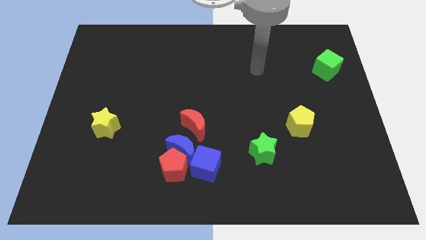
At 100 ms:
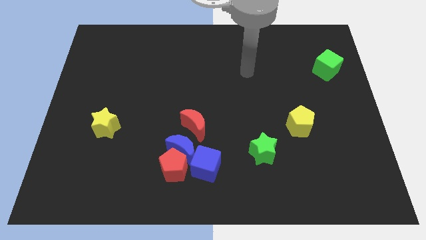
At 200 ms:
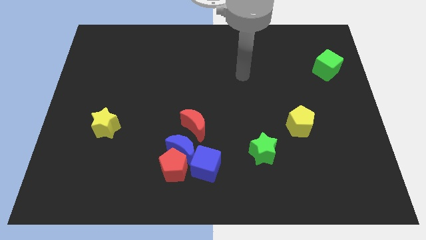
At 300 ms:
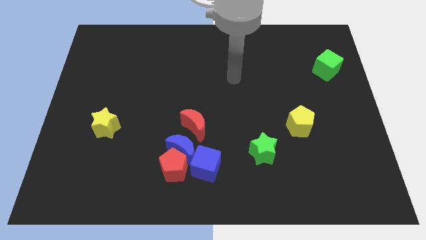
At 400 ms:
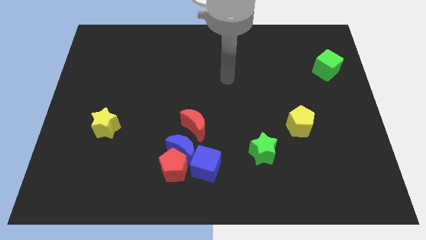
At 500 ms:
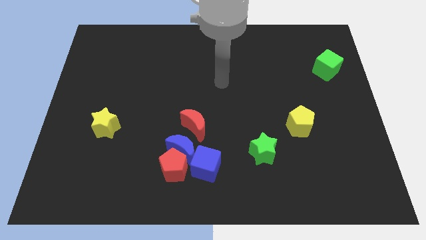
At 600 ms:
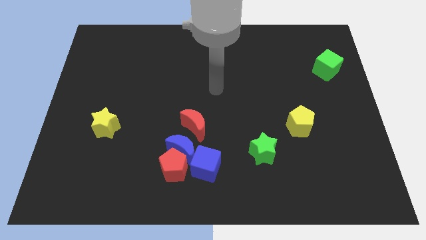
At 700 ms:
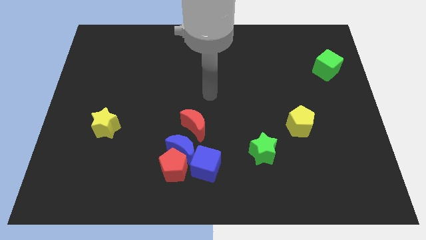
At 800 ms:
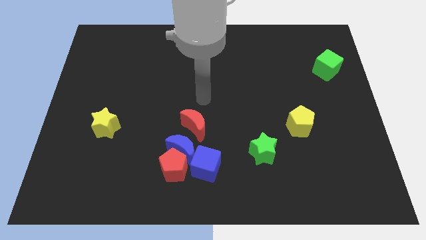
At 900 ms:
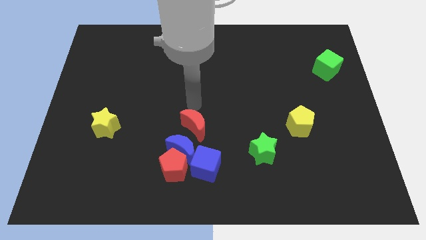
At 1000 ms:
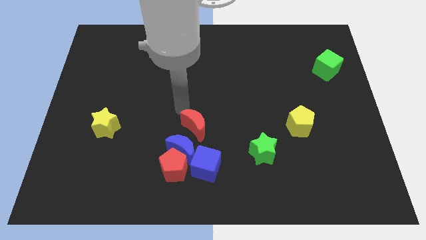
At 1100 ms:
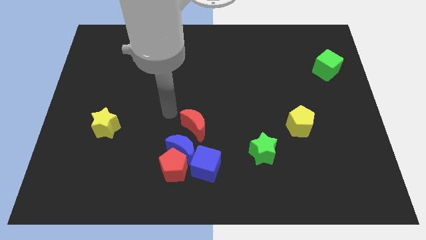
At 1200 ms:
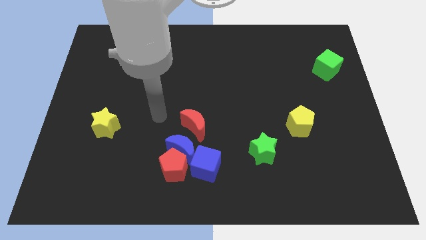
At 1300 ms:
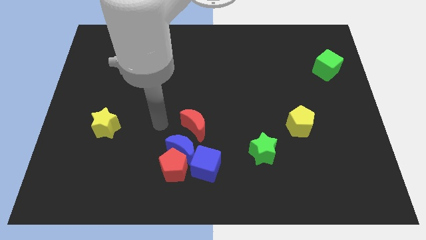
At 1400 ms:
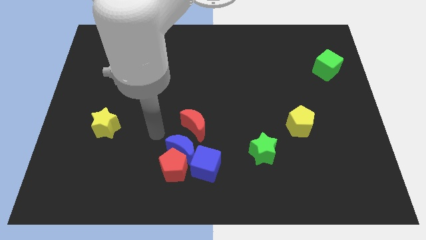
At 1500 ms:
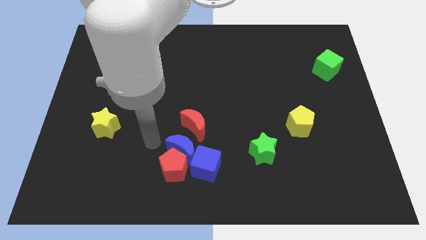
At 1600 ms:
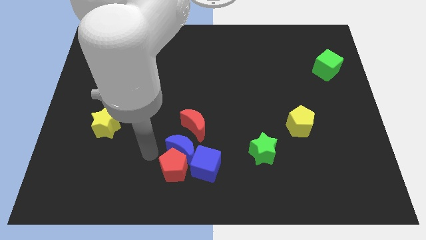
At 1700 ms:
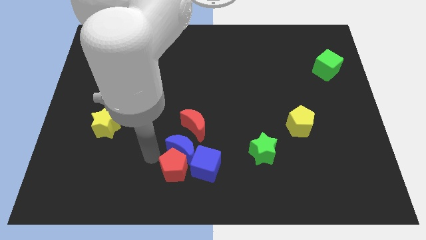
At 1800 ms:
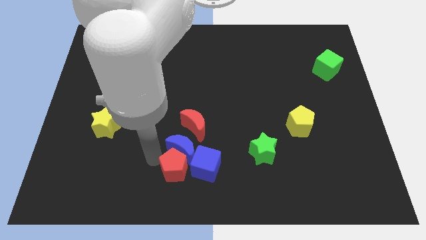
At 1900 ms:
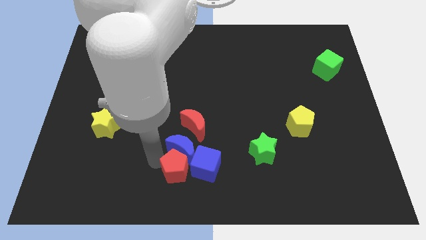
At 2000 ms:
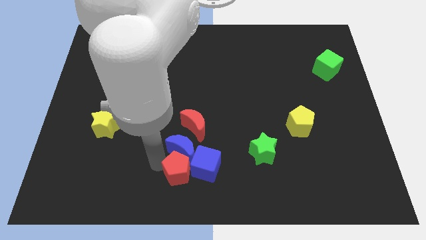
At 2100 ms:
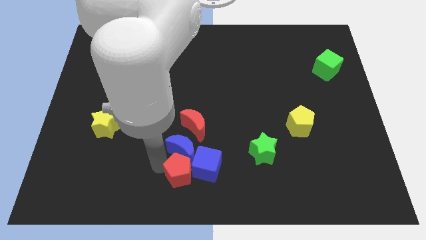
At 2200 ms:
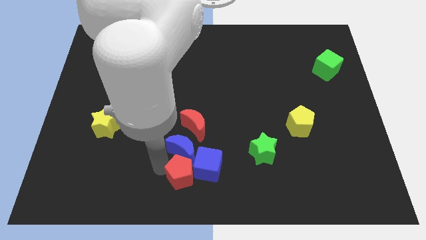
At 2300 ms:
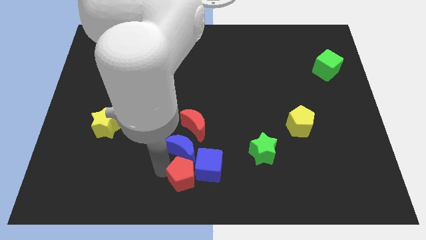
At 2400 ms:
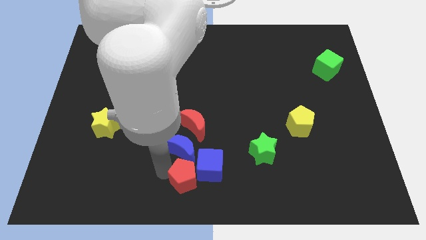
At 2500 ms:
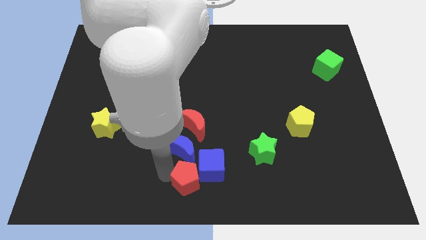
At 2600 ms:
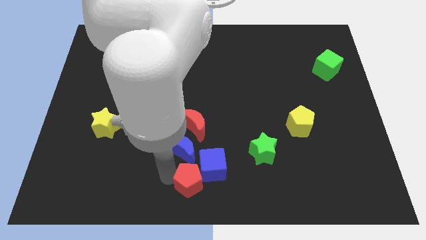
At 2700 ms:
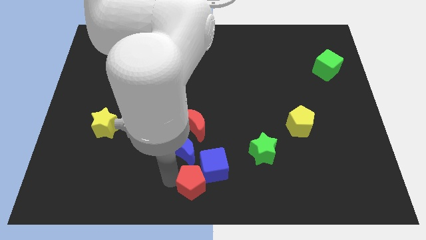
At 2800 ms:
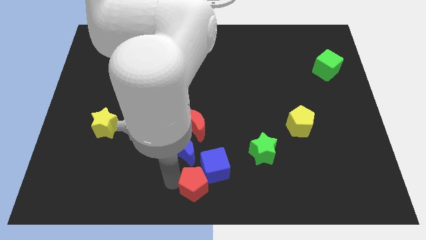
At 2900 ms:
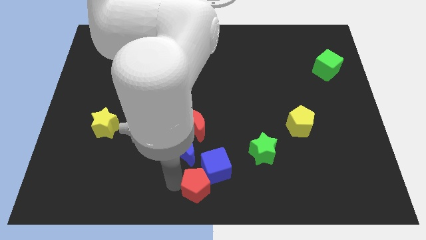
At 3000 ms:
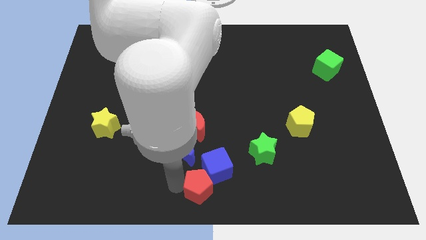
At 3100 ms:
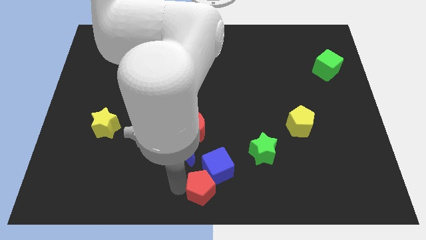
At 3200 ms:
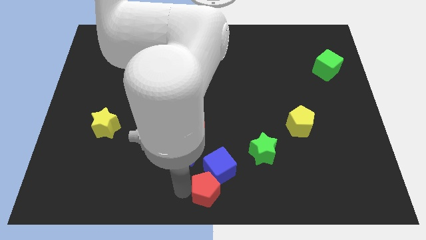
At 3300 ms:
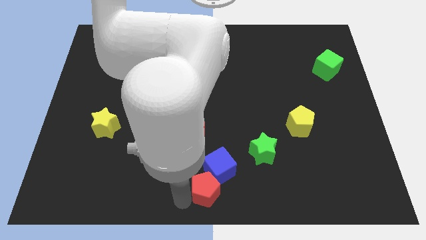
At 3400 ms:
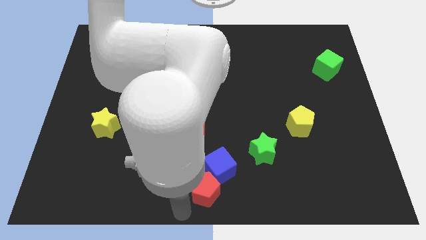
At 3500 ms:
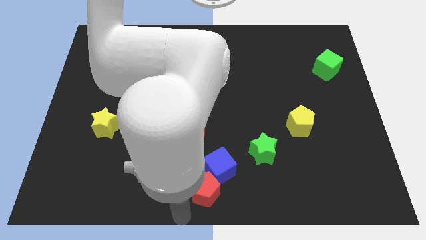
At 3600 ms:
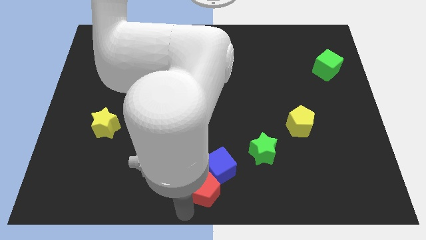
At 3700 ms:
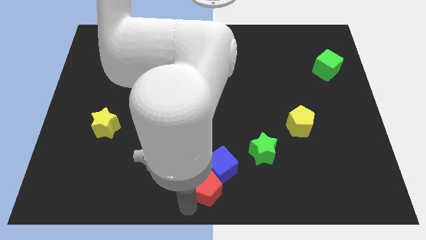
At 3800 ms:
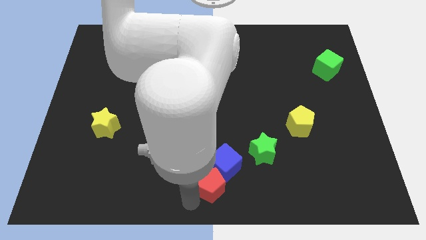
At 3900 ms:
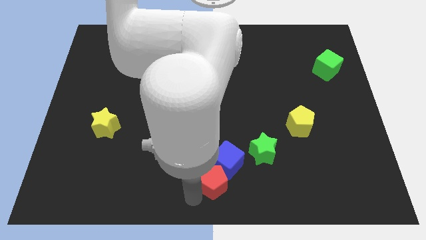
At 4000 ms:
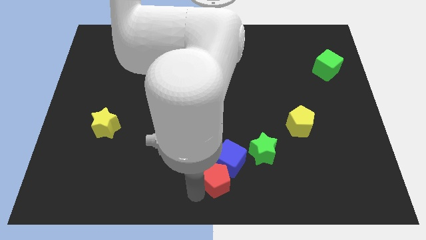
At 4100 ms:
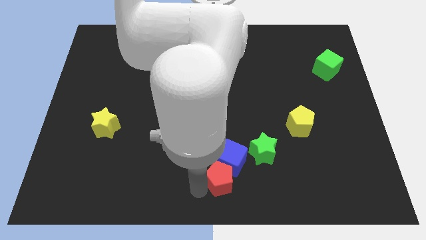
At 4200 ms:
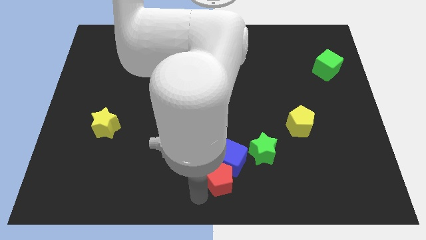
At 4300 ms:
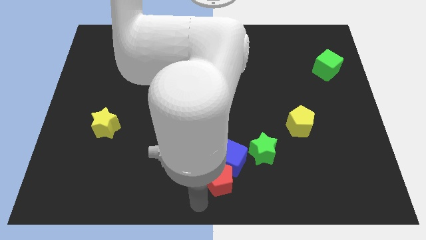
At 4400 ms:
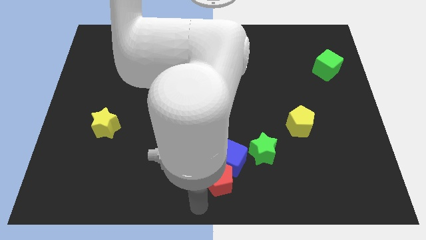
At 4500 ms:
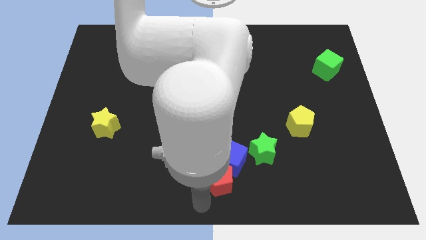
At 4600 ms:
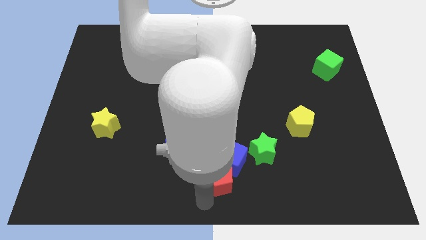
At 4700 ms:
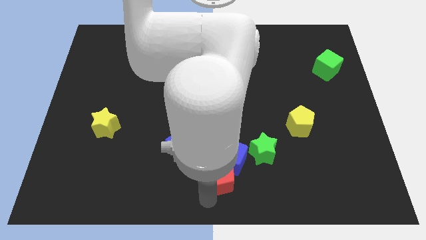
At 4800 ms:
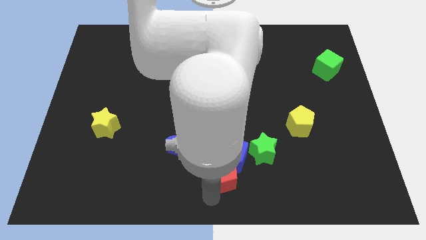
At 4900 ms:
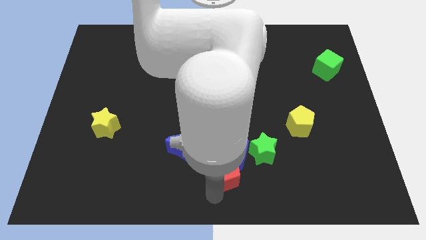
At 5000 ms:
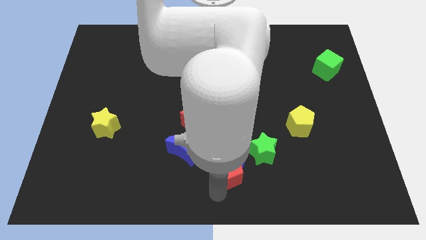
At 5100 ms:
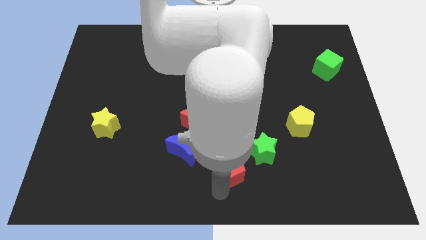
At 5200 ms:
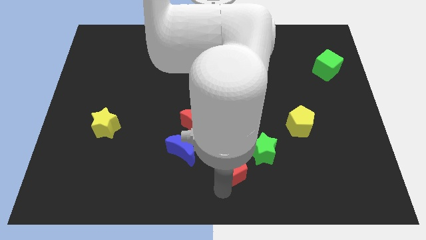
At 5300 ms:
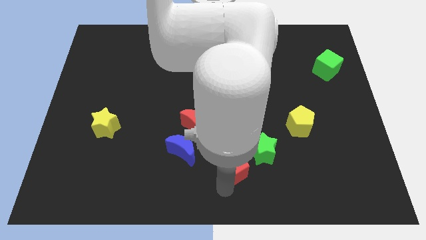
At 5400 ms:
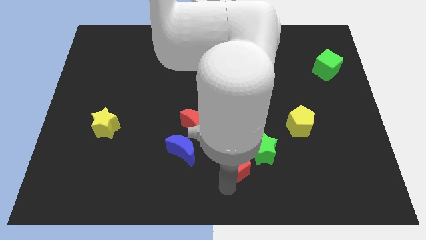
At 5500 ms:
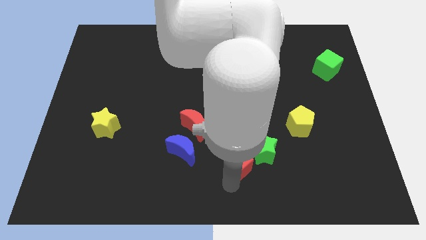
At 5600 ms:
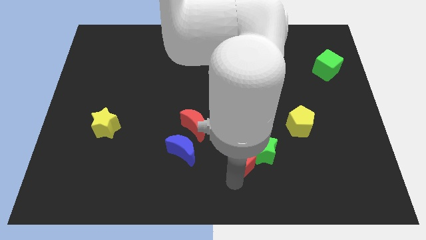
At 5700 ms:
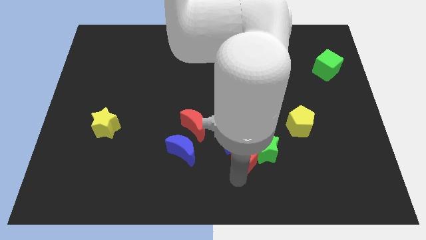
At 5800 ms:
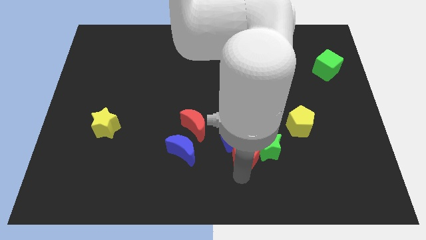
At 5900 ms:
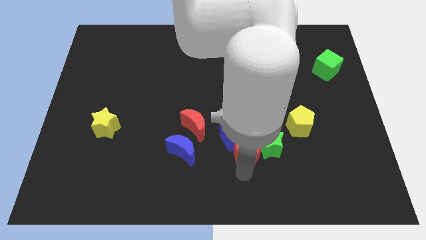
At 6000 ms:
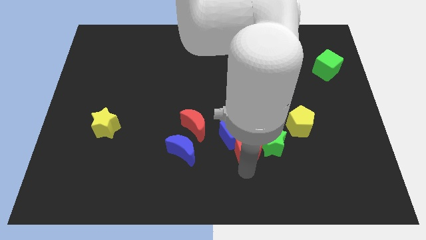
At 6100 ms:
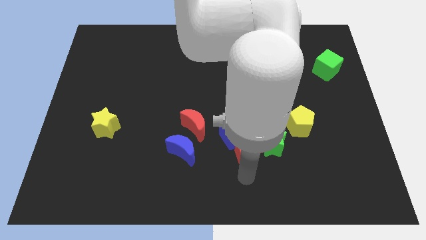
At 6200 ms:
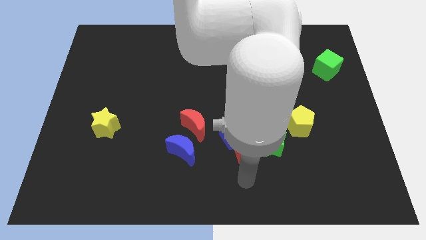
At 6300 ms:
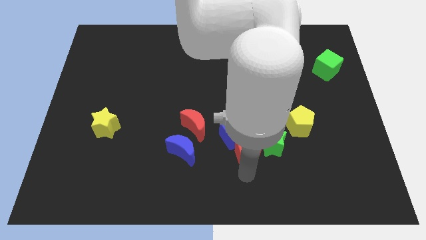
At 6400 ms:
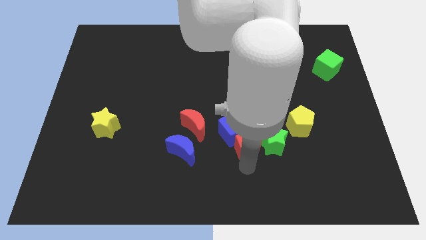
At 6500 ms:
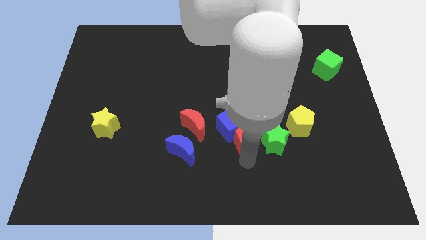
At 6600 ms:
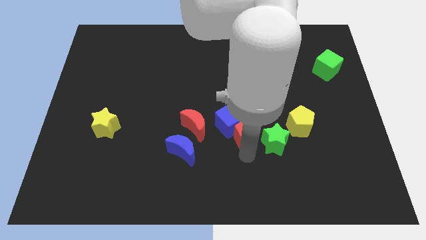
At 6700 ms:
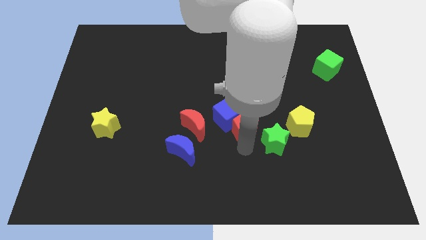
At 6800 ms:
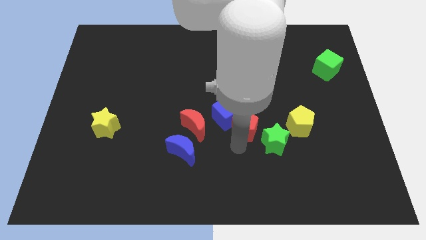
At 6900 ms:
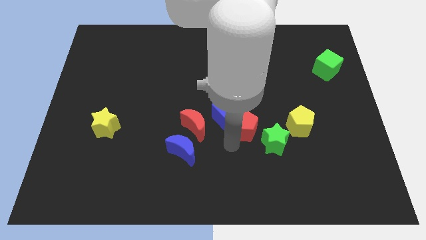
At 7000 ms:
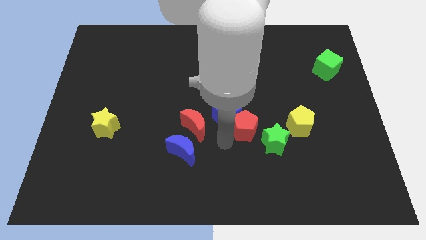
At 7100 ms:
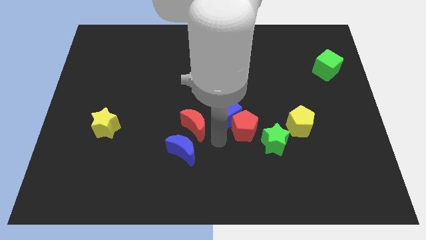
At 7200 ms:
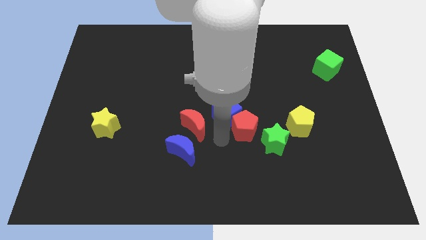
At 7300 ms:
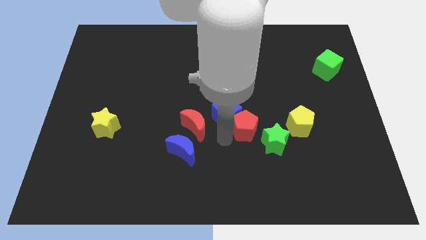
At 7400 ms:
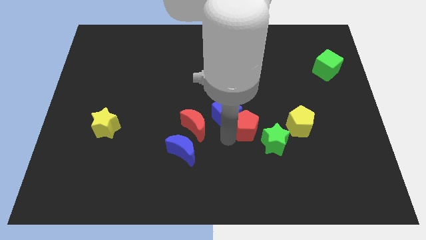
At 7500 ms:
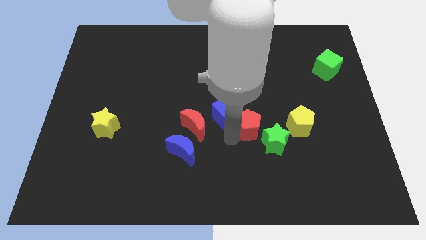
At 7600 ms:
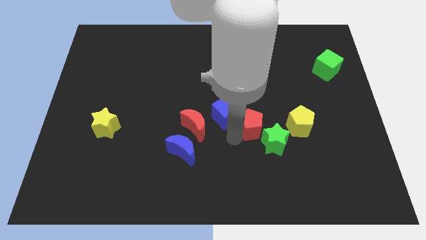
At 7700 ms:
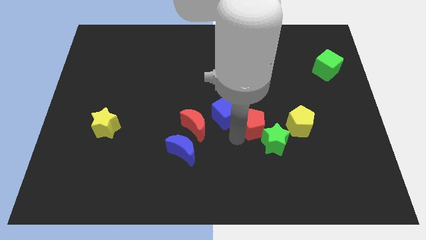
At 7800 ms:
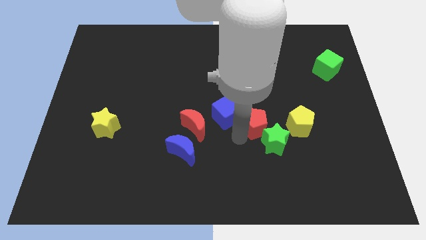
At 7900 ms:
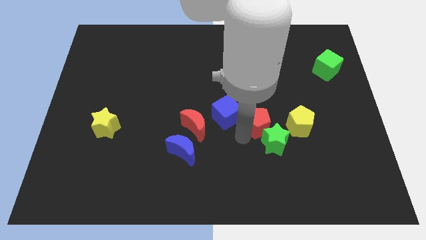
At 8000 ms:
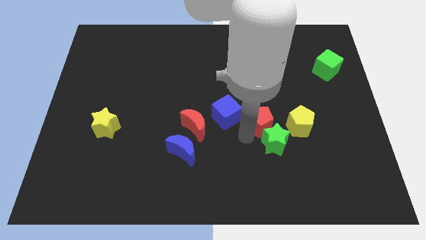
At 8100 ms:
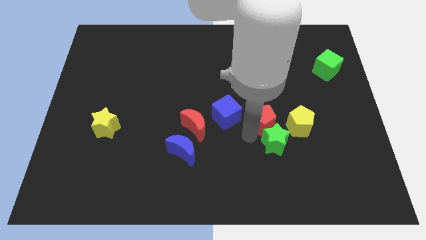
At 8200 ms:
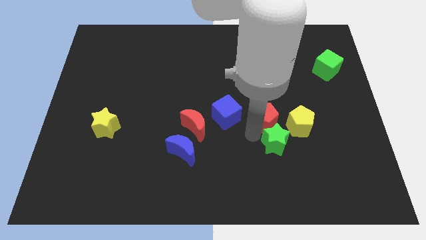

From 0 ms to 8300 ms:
slide the red pentagon diagonally up and to the left of the yellow pentagon
